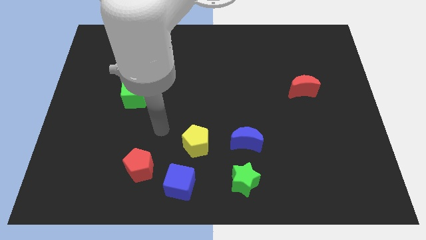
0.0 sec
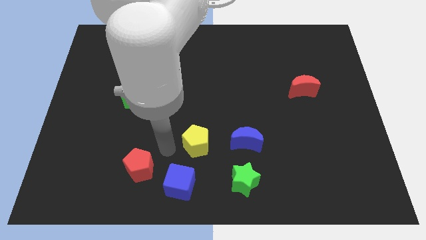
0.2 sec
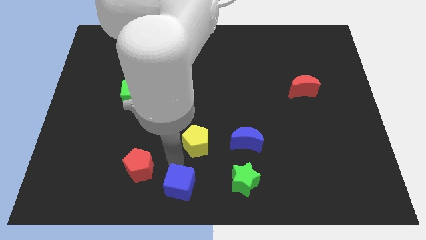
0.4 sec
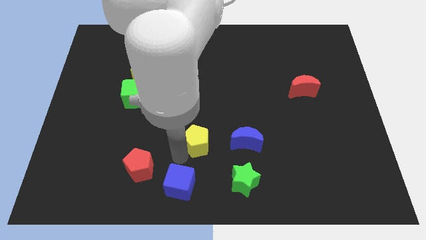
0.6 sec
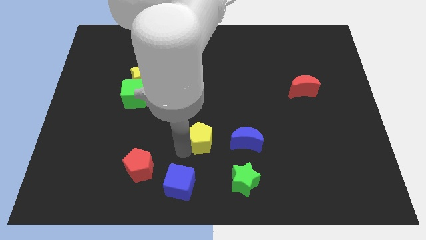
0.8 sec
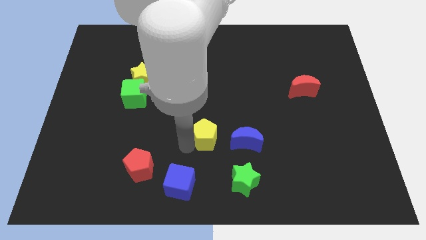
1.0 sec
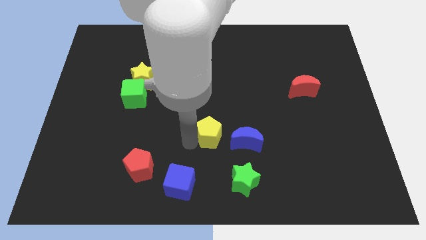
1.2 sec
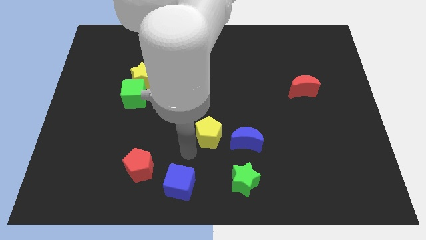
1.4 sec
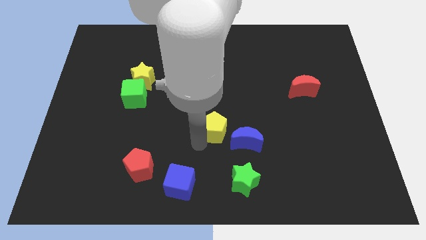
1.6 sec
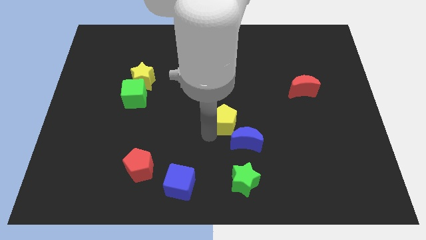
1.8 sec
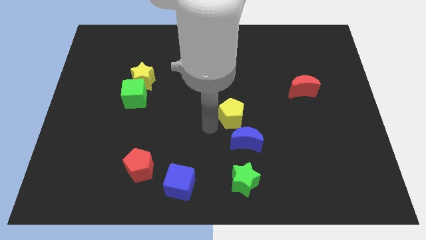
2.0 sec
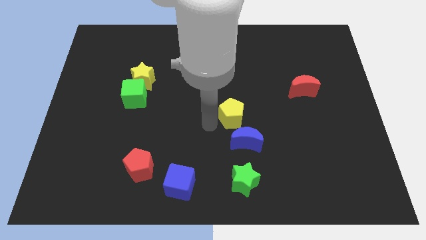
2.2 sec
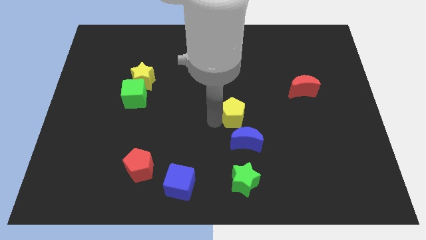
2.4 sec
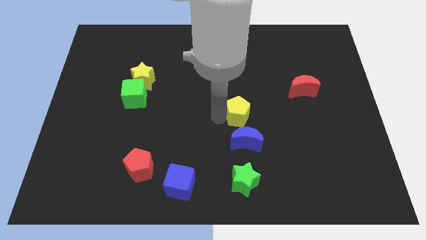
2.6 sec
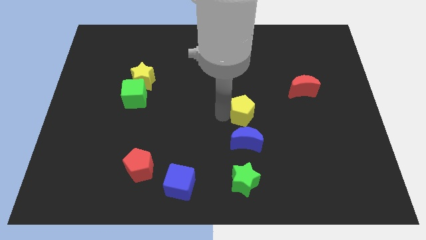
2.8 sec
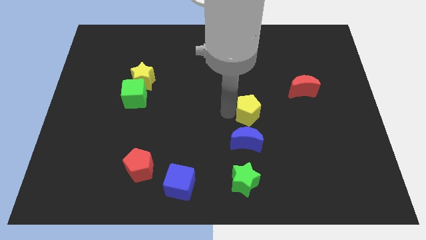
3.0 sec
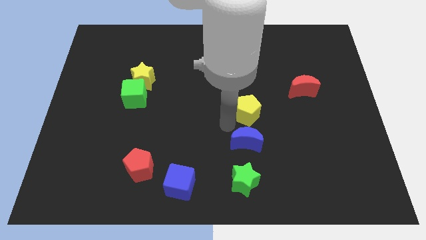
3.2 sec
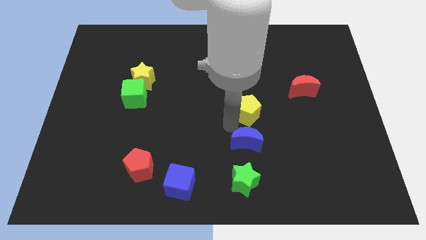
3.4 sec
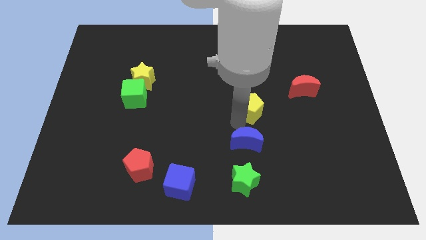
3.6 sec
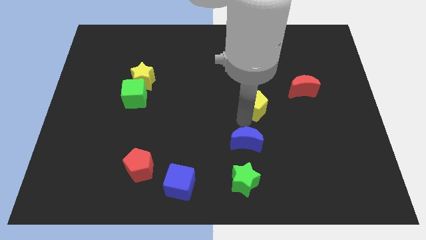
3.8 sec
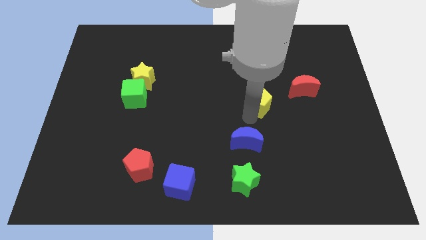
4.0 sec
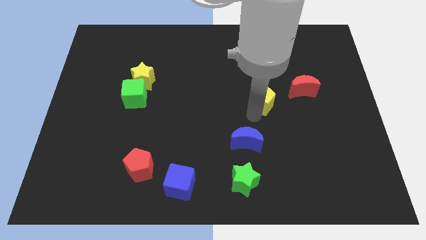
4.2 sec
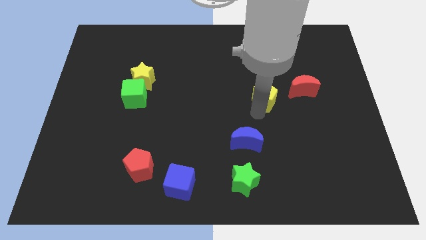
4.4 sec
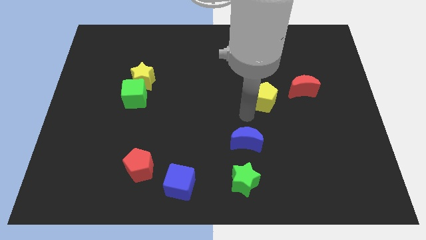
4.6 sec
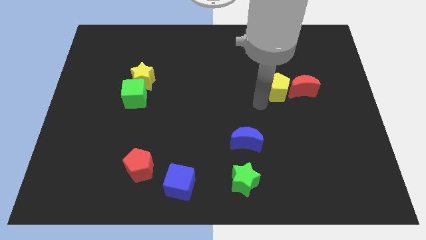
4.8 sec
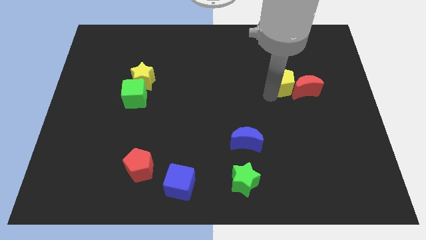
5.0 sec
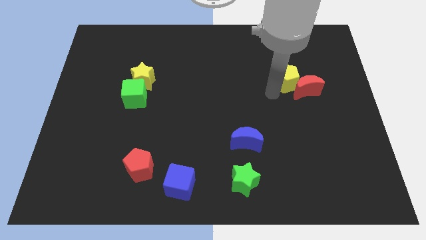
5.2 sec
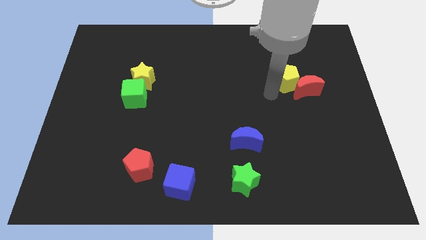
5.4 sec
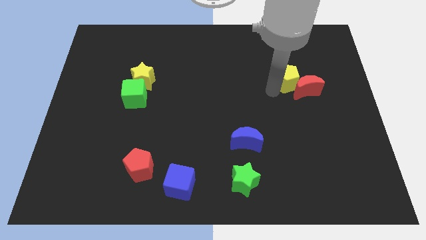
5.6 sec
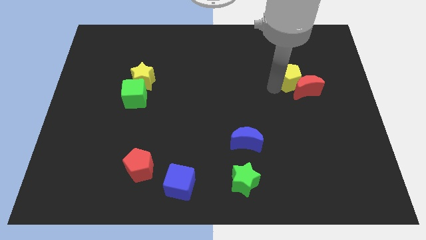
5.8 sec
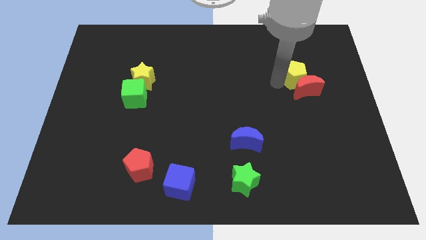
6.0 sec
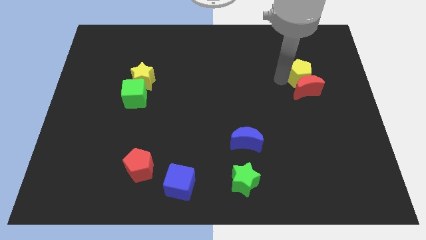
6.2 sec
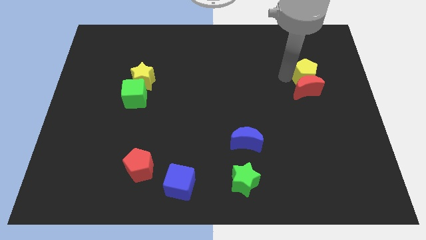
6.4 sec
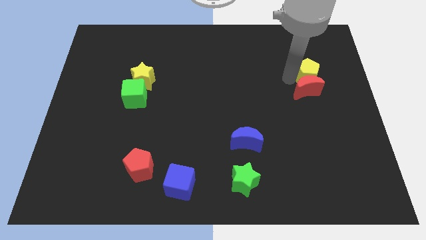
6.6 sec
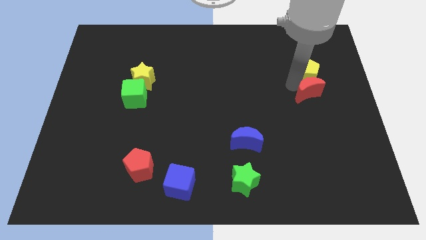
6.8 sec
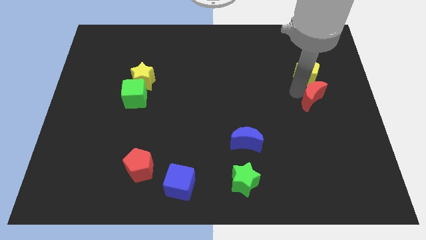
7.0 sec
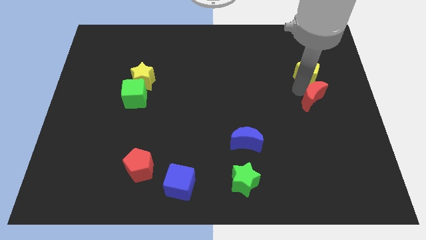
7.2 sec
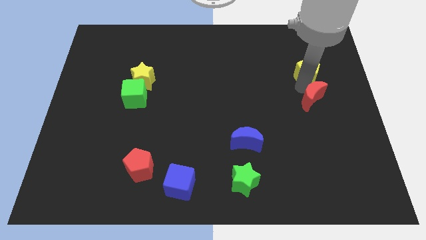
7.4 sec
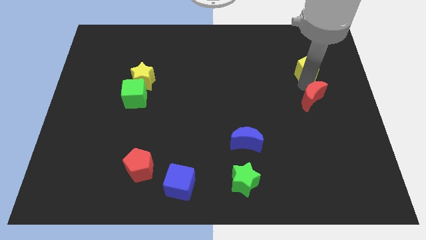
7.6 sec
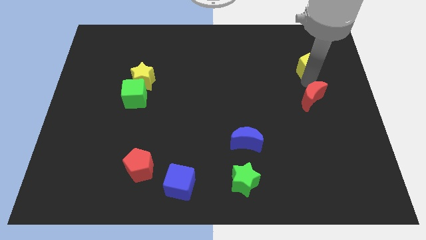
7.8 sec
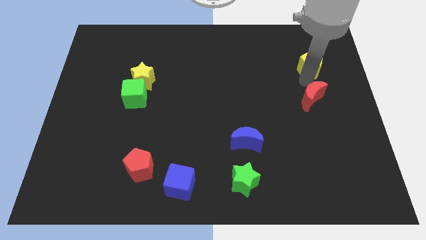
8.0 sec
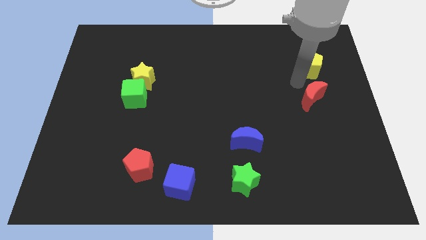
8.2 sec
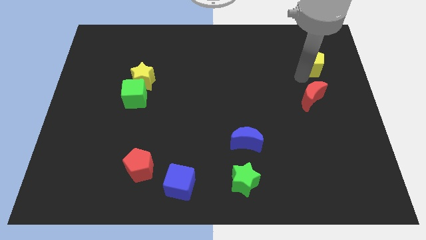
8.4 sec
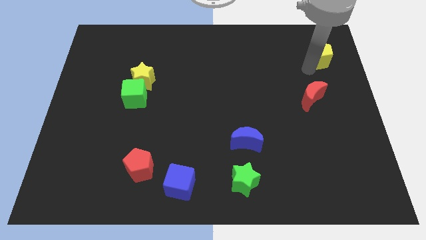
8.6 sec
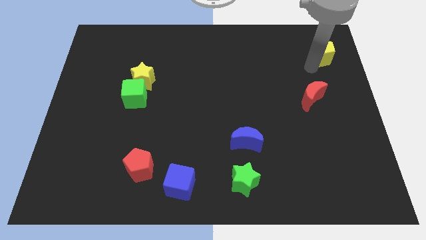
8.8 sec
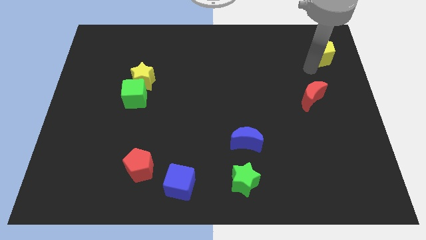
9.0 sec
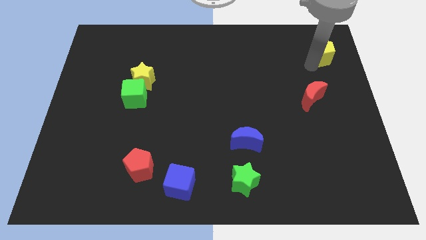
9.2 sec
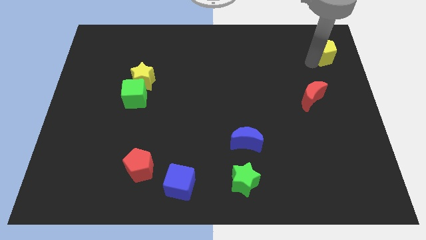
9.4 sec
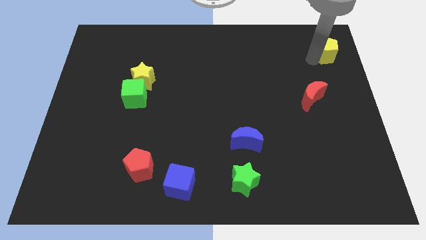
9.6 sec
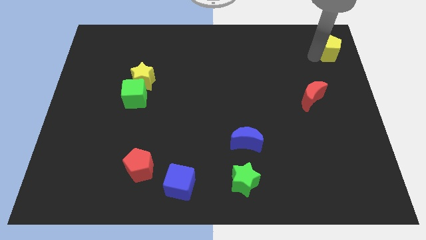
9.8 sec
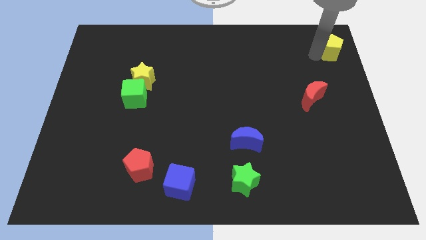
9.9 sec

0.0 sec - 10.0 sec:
move the yellow pentagon to the top right corner

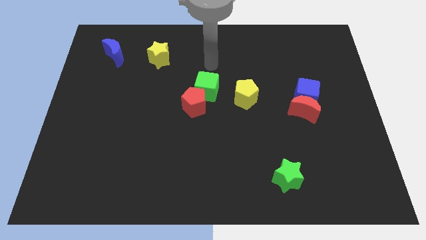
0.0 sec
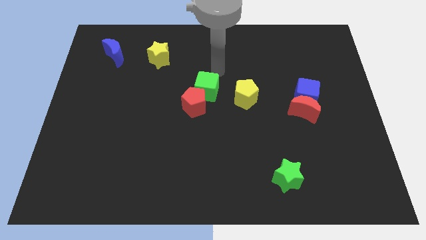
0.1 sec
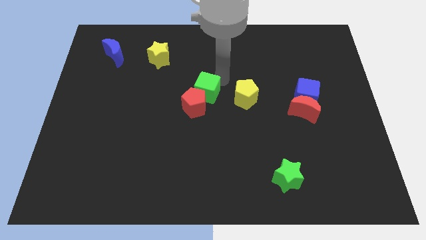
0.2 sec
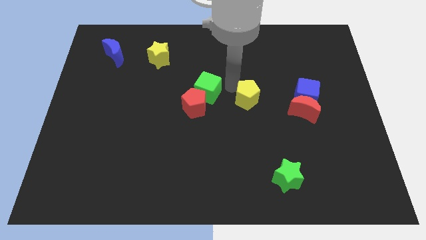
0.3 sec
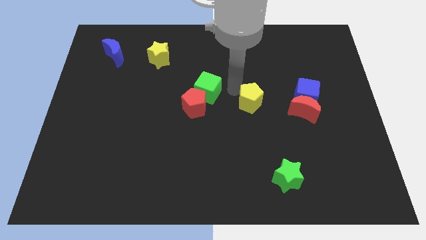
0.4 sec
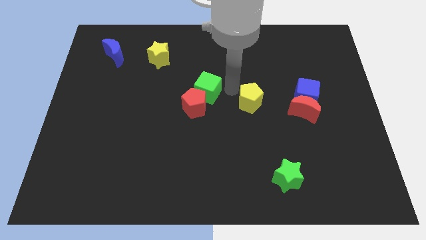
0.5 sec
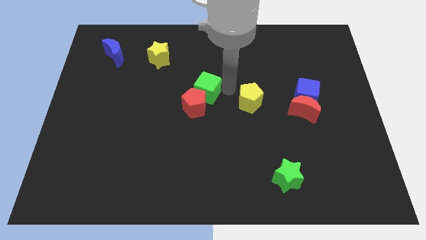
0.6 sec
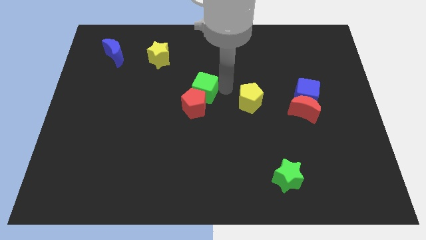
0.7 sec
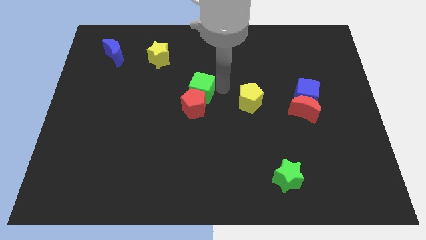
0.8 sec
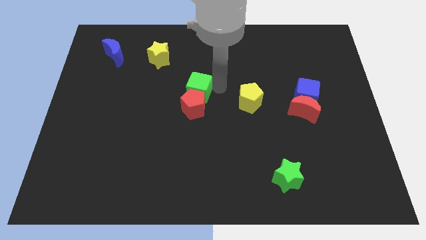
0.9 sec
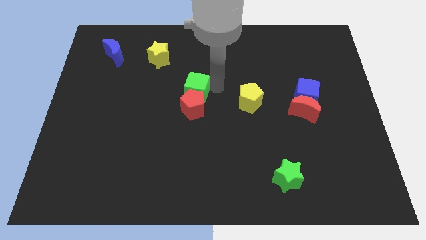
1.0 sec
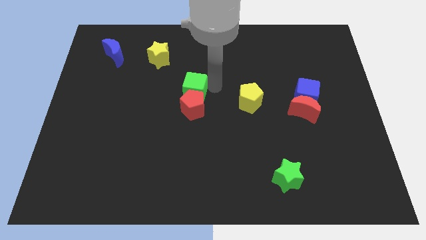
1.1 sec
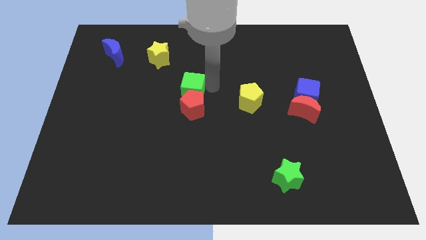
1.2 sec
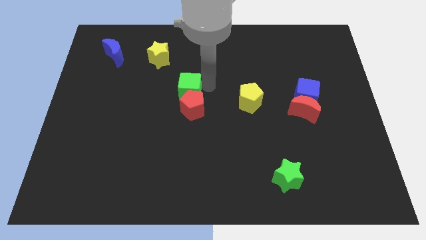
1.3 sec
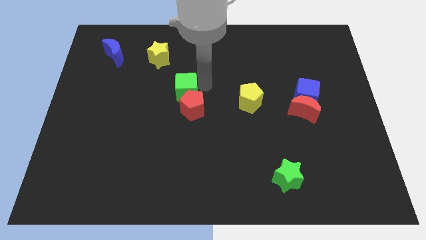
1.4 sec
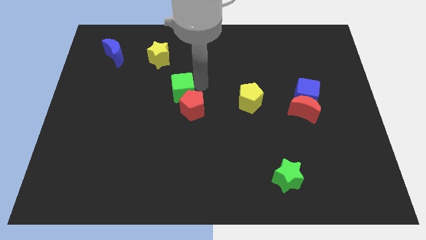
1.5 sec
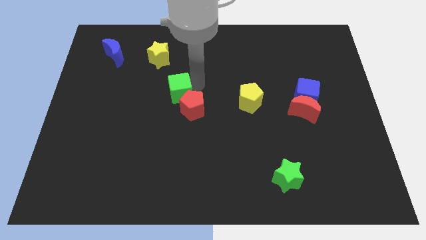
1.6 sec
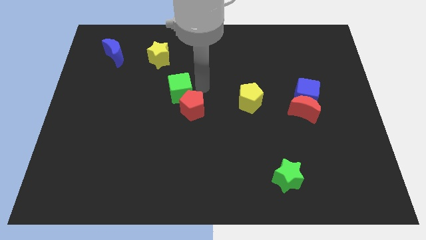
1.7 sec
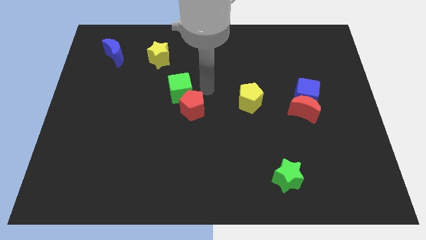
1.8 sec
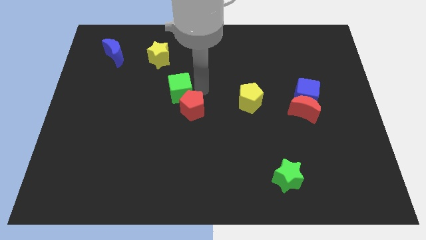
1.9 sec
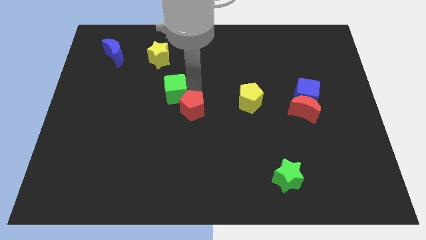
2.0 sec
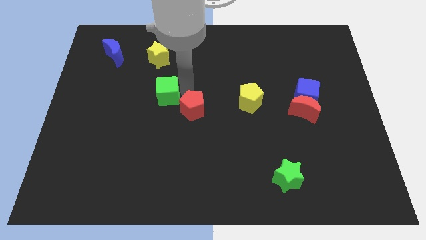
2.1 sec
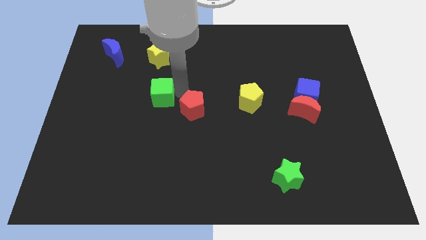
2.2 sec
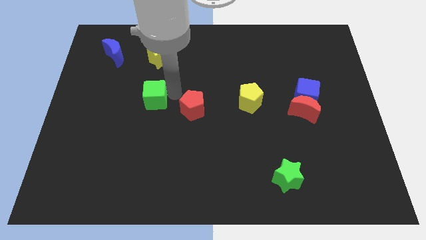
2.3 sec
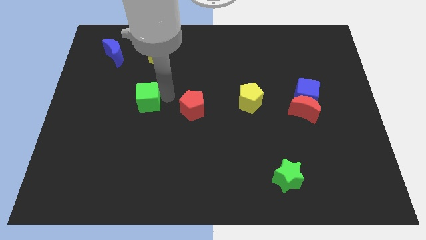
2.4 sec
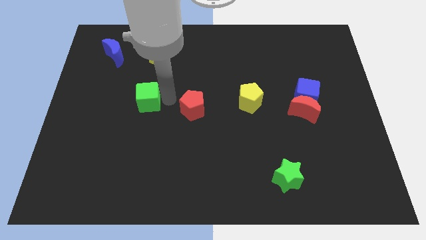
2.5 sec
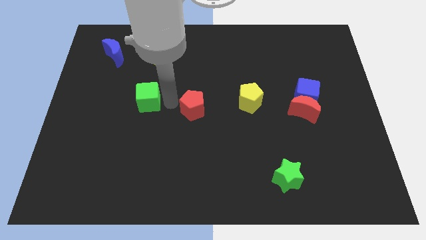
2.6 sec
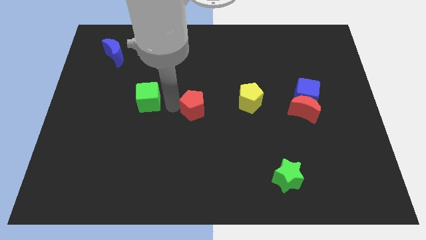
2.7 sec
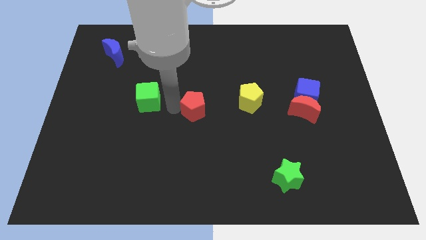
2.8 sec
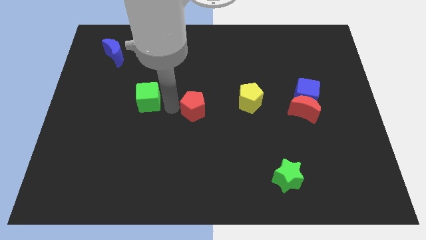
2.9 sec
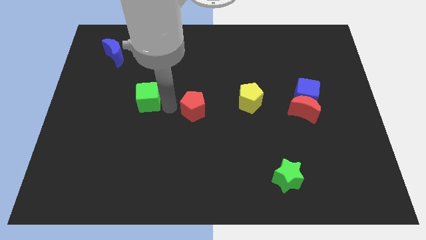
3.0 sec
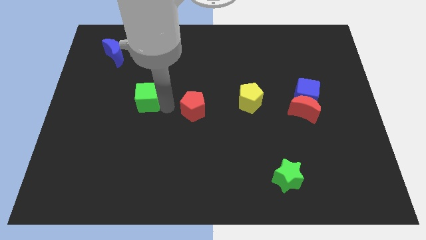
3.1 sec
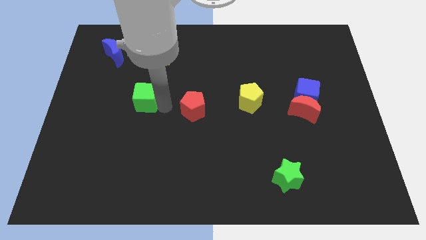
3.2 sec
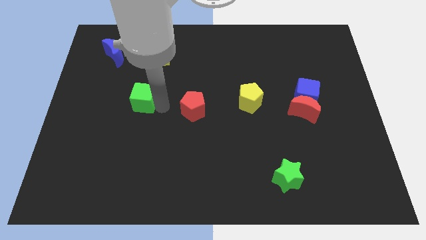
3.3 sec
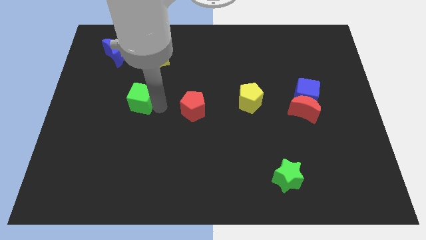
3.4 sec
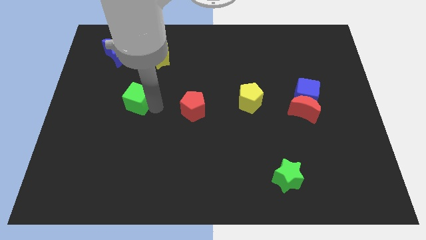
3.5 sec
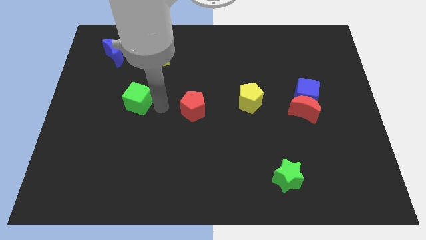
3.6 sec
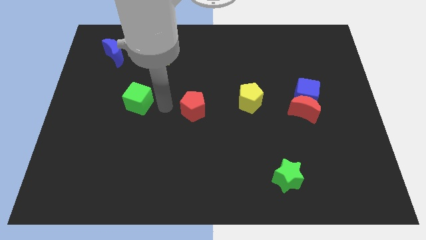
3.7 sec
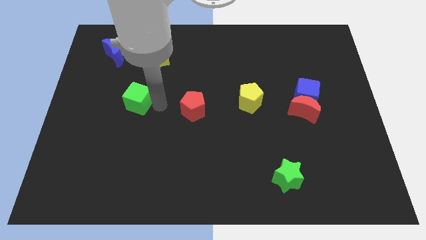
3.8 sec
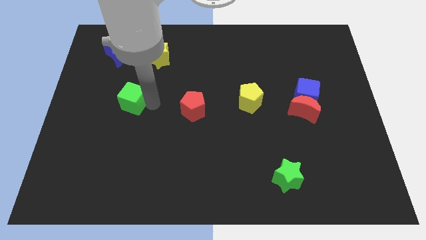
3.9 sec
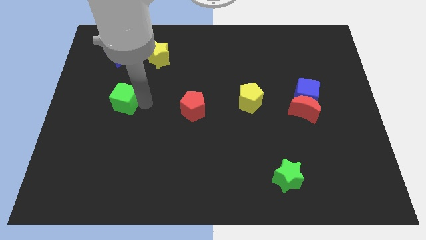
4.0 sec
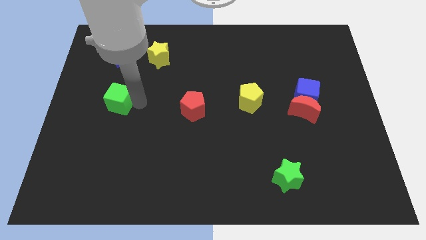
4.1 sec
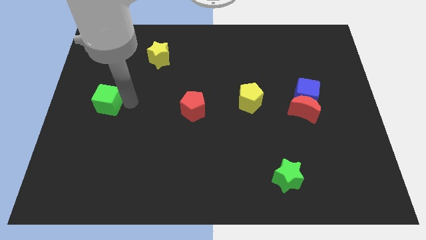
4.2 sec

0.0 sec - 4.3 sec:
move the green cube to the center left
